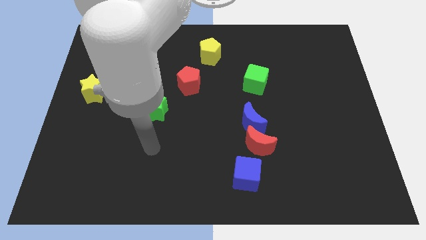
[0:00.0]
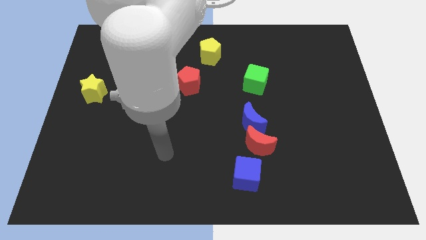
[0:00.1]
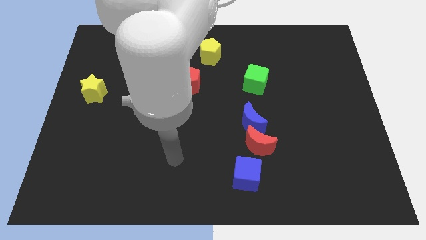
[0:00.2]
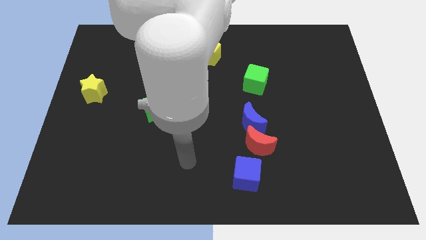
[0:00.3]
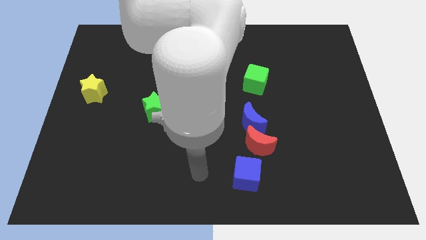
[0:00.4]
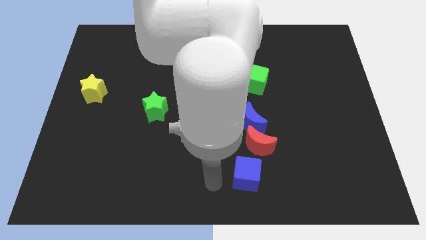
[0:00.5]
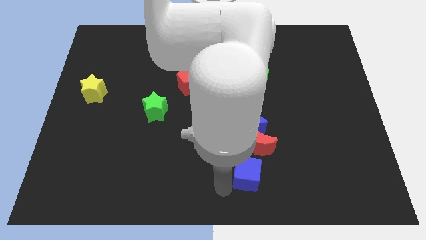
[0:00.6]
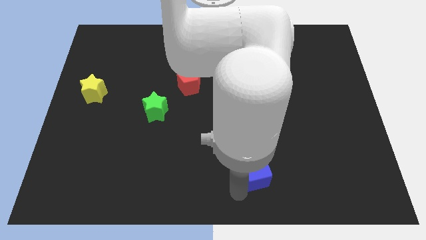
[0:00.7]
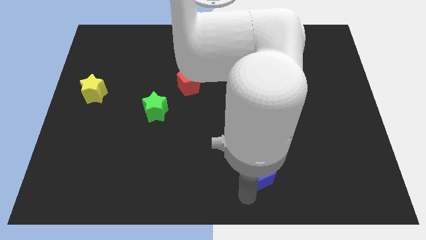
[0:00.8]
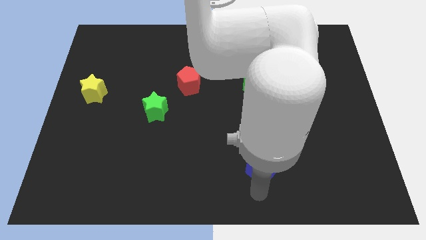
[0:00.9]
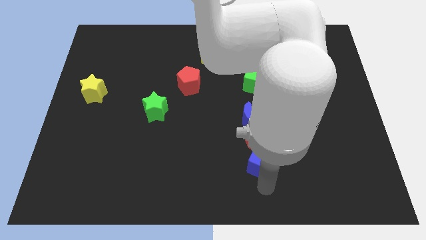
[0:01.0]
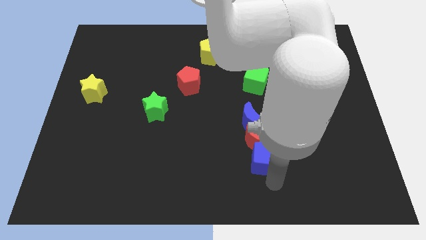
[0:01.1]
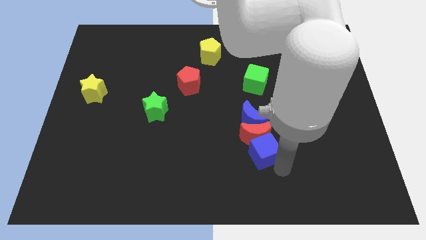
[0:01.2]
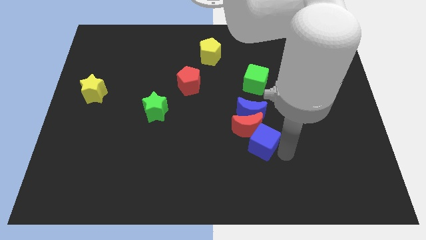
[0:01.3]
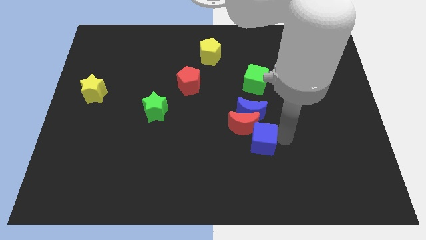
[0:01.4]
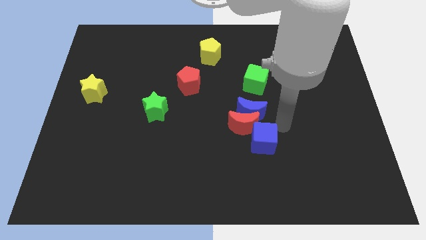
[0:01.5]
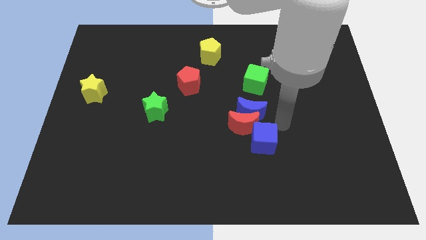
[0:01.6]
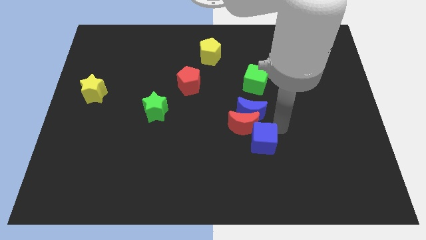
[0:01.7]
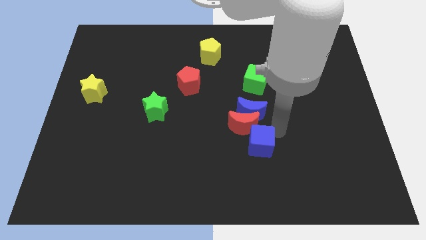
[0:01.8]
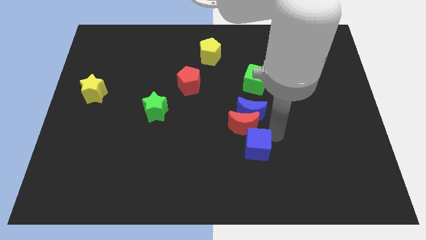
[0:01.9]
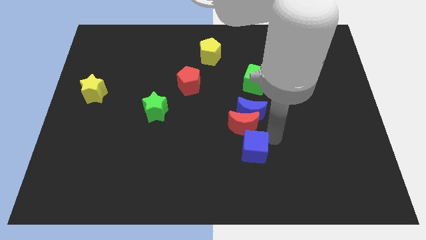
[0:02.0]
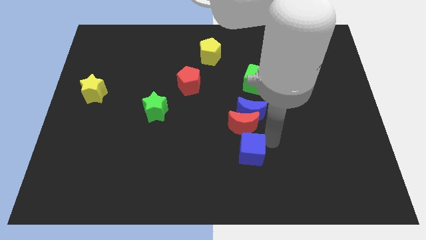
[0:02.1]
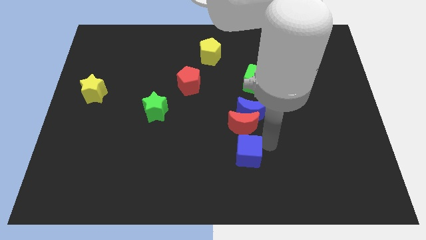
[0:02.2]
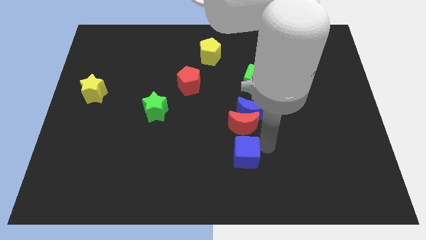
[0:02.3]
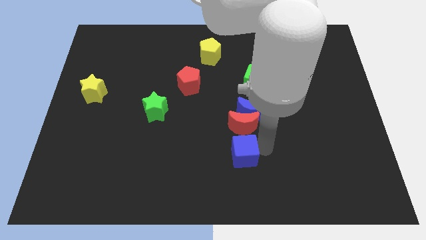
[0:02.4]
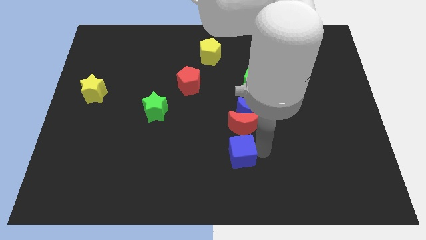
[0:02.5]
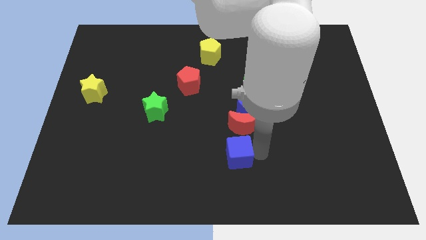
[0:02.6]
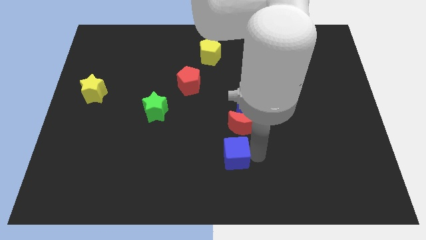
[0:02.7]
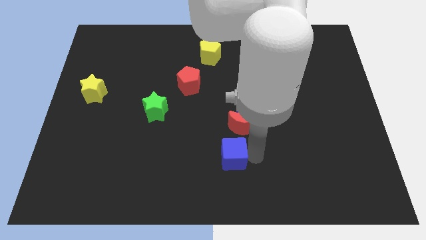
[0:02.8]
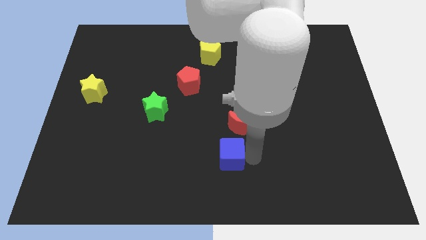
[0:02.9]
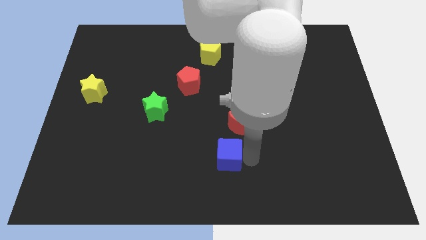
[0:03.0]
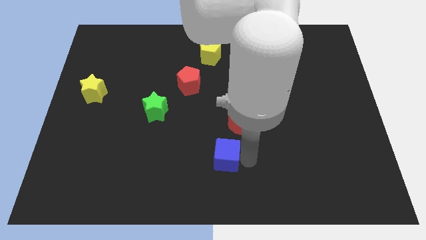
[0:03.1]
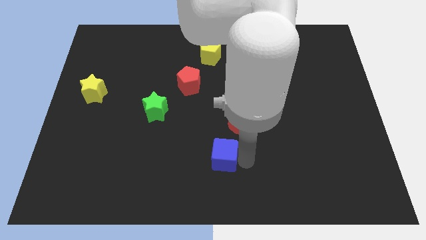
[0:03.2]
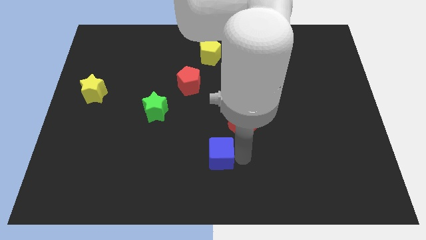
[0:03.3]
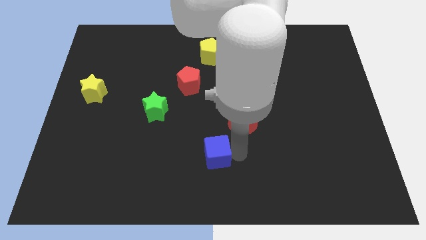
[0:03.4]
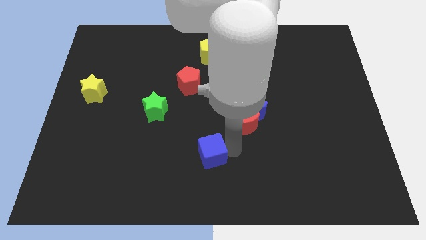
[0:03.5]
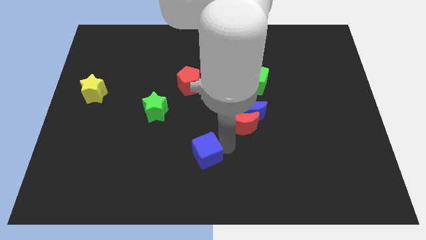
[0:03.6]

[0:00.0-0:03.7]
push the blue cube to the left somewhat

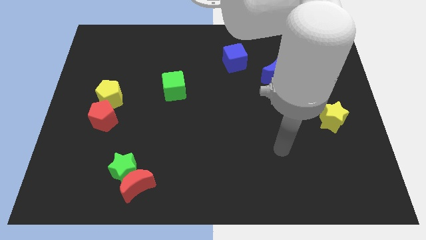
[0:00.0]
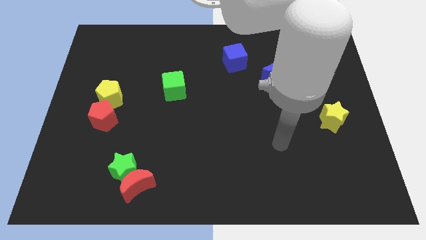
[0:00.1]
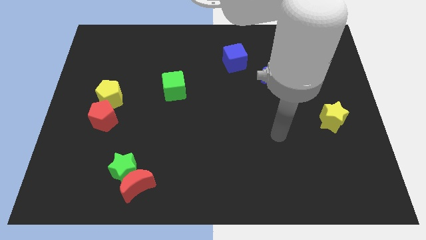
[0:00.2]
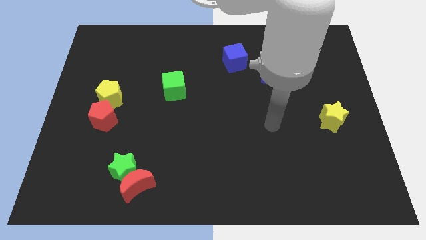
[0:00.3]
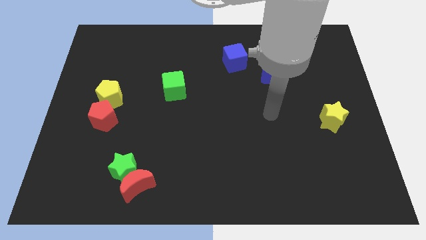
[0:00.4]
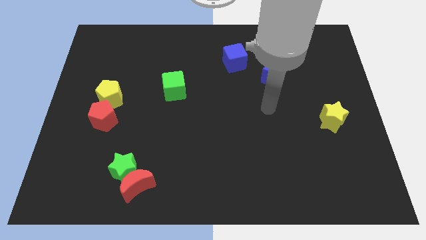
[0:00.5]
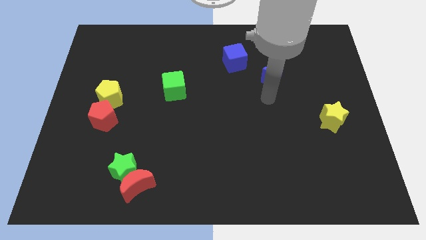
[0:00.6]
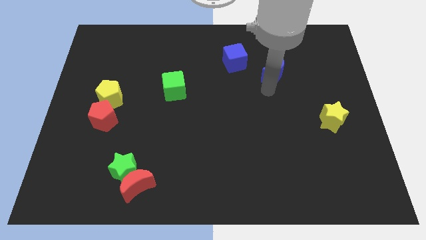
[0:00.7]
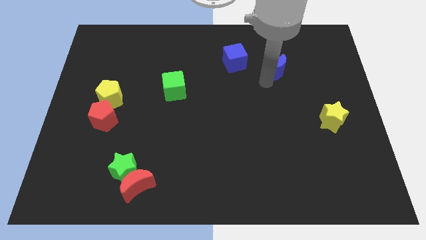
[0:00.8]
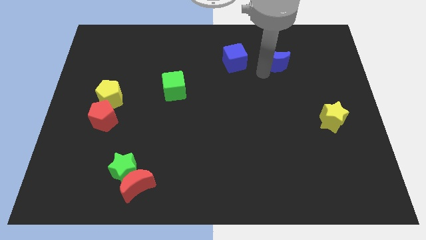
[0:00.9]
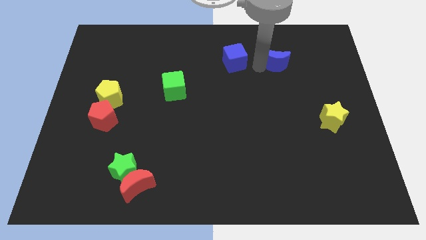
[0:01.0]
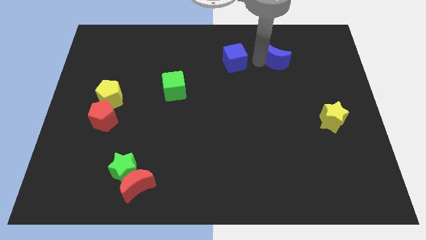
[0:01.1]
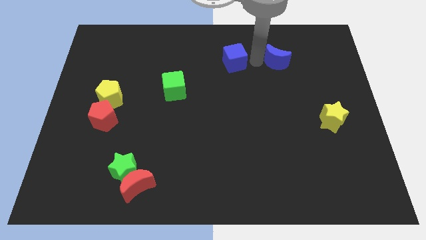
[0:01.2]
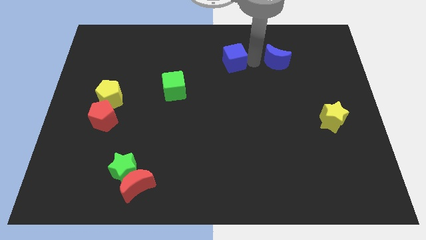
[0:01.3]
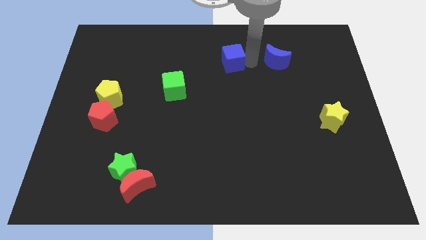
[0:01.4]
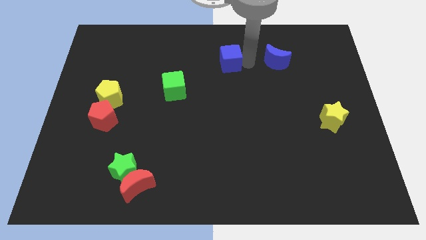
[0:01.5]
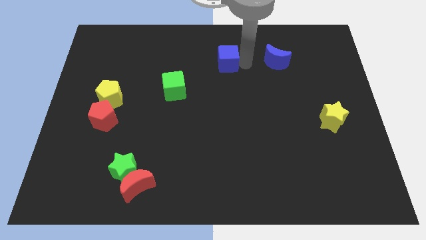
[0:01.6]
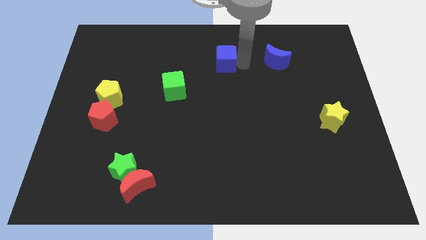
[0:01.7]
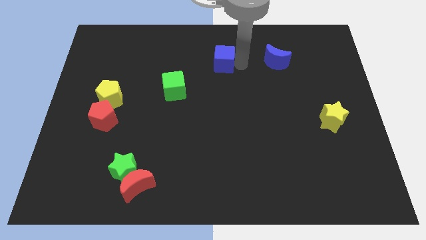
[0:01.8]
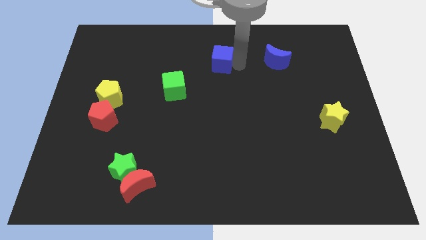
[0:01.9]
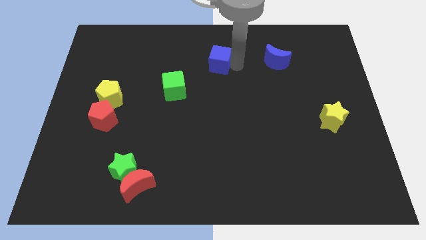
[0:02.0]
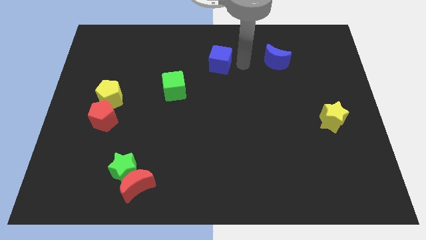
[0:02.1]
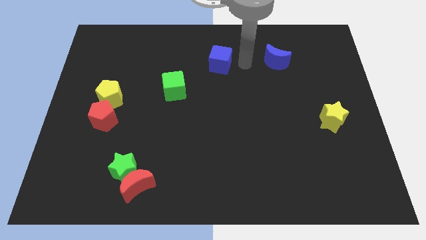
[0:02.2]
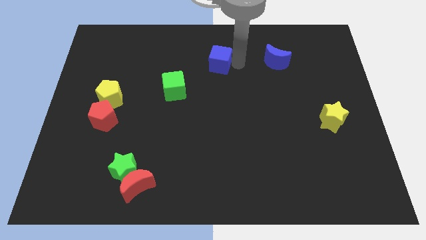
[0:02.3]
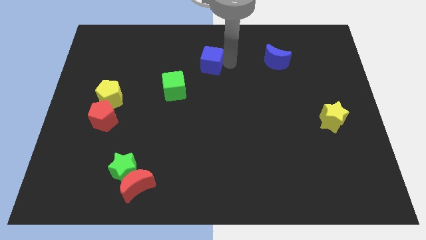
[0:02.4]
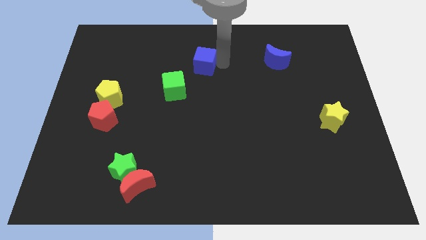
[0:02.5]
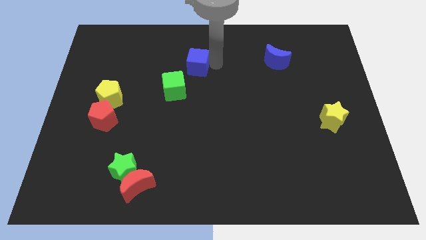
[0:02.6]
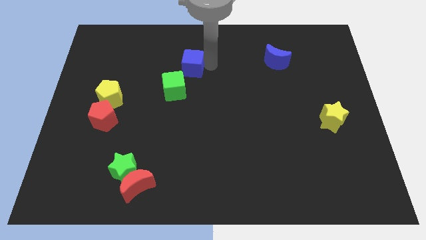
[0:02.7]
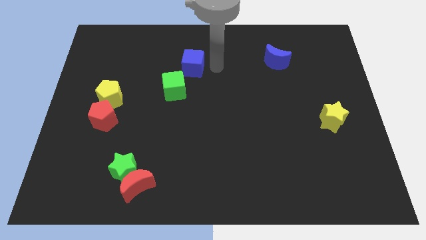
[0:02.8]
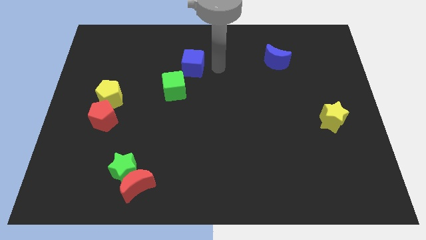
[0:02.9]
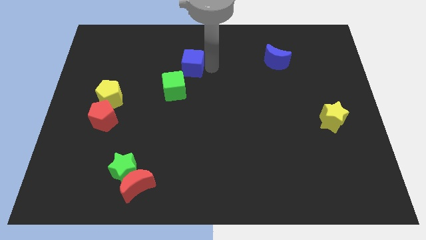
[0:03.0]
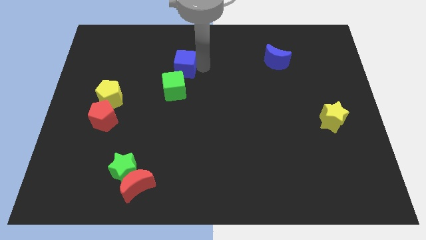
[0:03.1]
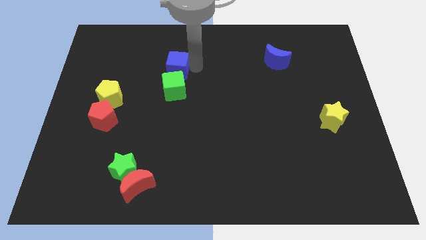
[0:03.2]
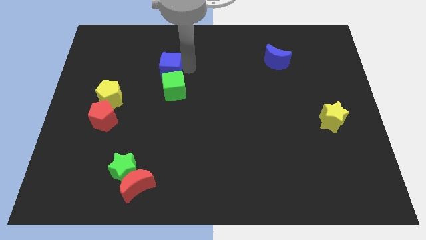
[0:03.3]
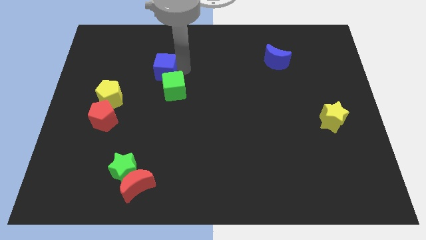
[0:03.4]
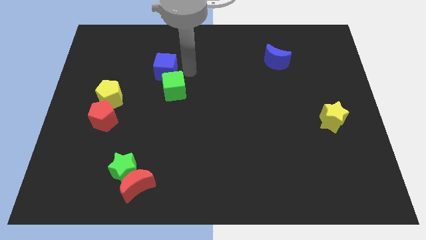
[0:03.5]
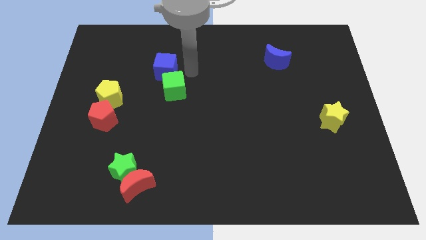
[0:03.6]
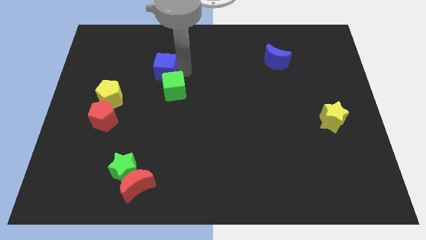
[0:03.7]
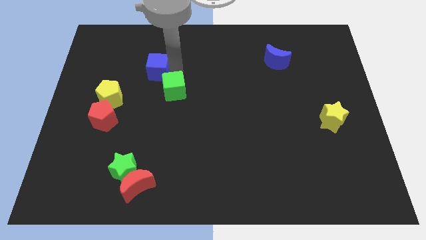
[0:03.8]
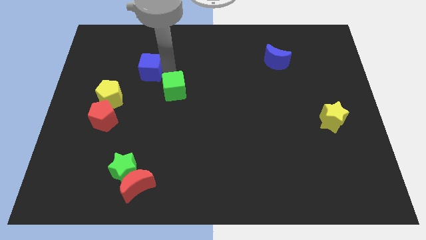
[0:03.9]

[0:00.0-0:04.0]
move the blue cube to the left

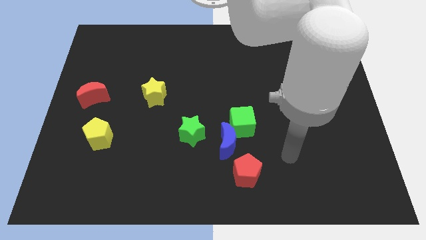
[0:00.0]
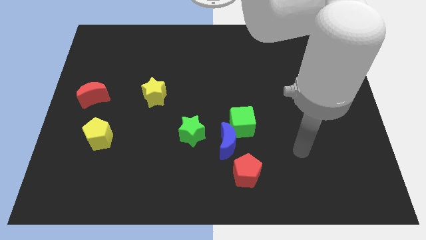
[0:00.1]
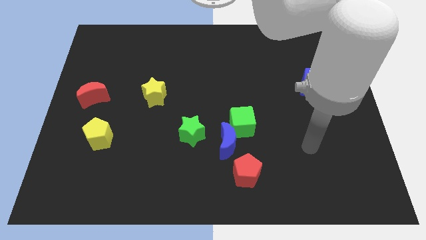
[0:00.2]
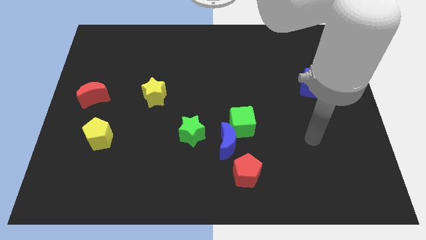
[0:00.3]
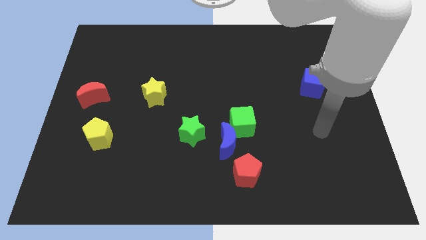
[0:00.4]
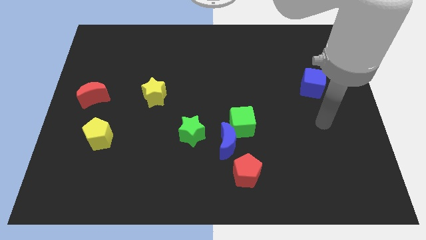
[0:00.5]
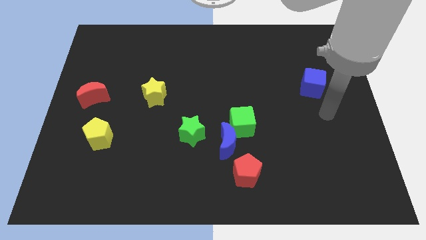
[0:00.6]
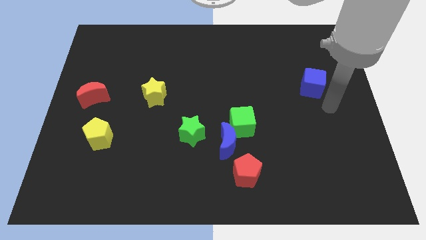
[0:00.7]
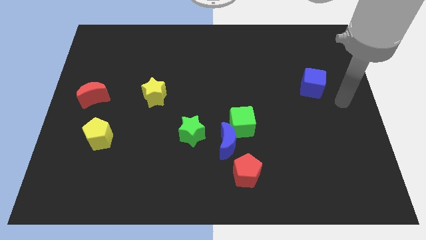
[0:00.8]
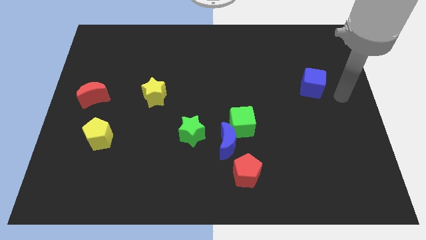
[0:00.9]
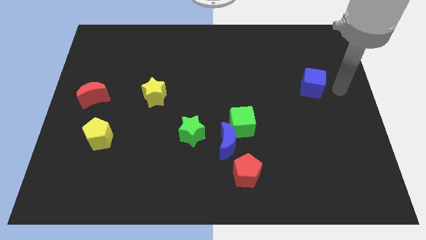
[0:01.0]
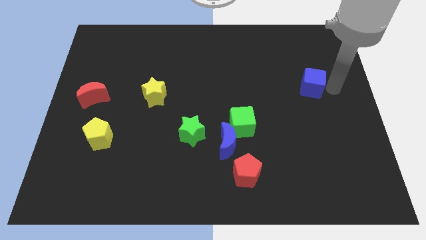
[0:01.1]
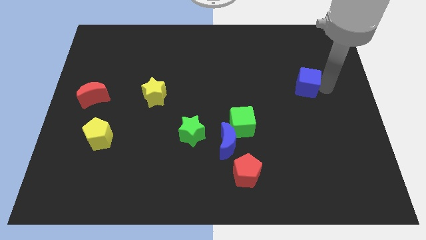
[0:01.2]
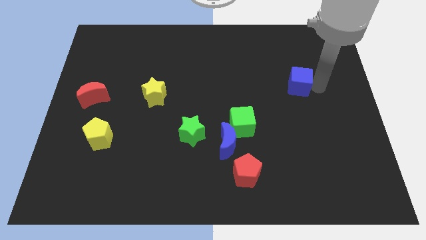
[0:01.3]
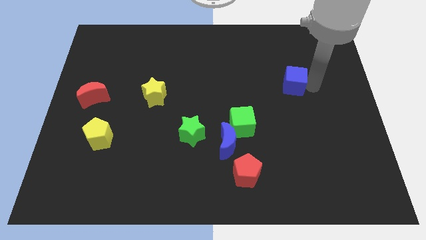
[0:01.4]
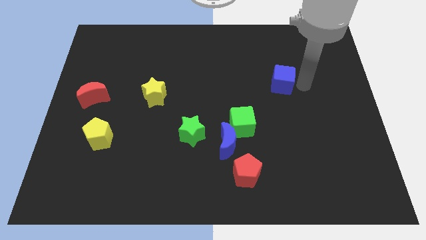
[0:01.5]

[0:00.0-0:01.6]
slightly slide the blue cube to the left
